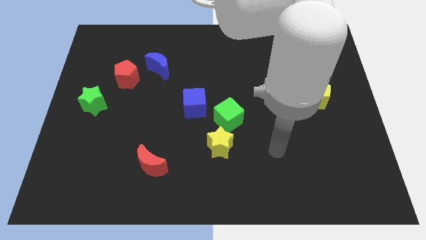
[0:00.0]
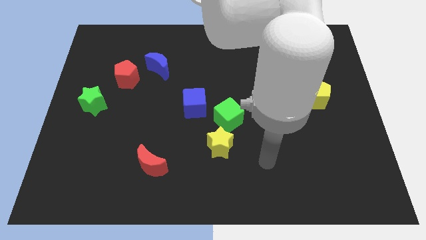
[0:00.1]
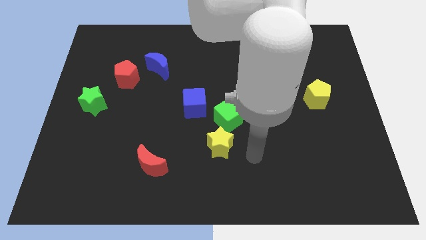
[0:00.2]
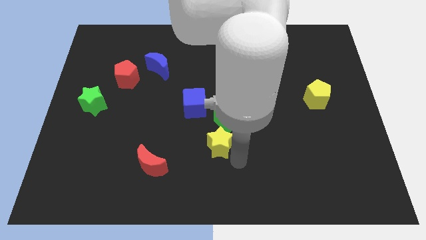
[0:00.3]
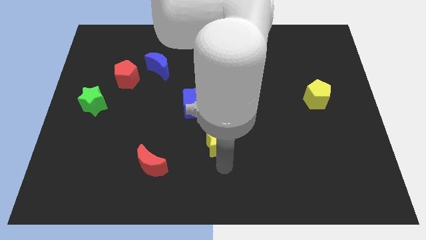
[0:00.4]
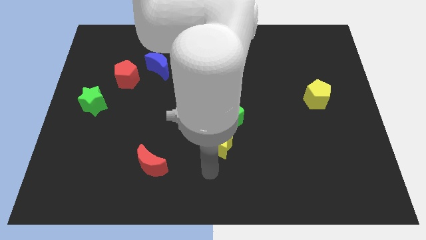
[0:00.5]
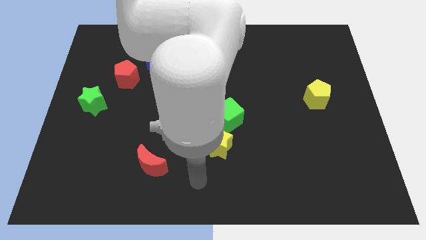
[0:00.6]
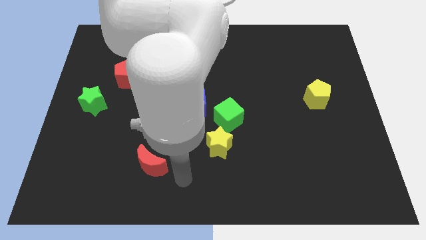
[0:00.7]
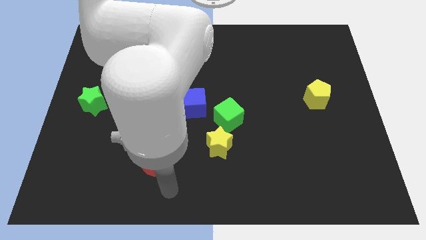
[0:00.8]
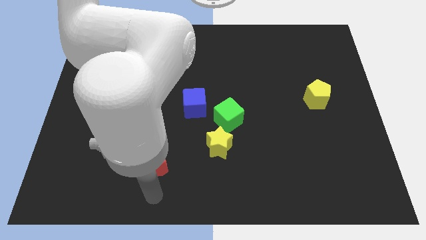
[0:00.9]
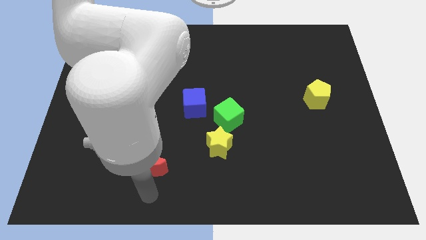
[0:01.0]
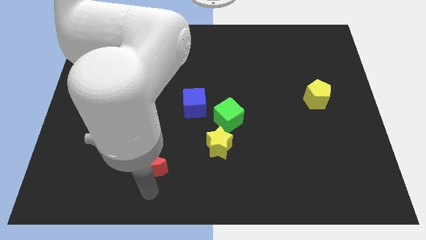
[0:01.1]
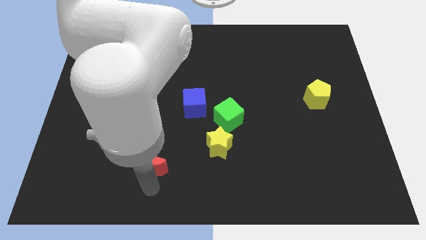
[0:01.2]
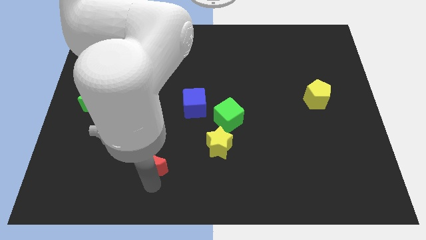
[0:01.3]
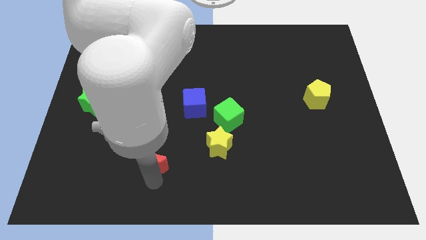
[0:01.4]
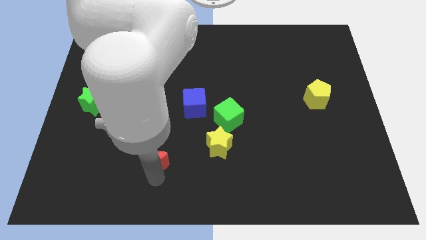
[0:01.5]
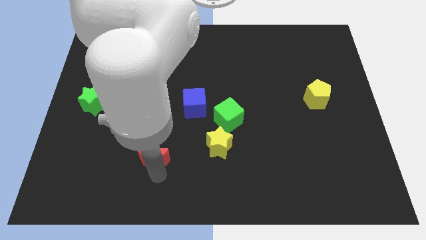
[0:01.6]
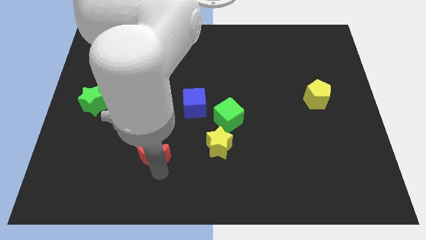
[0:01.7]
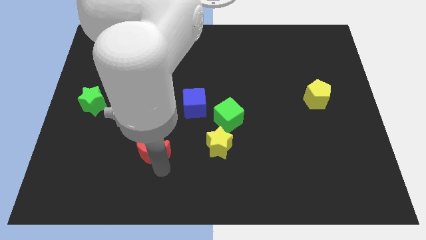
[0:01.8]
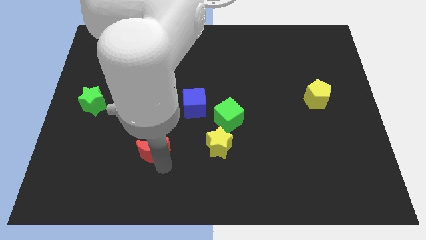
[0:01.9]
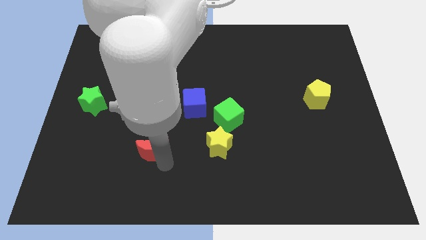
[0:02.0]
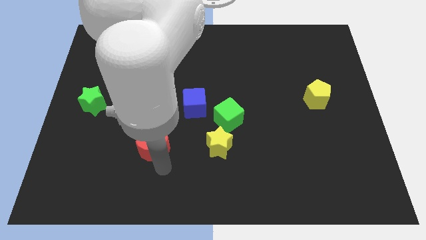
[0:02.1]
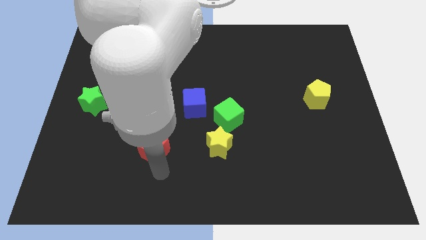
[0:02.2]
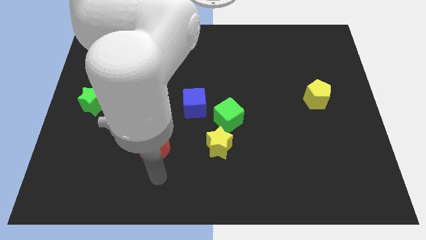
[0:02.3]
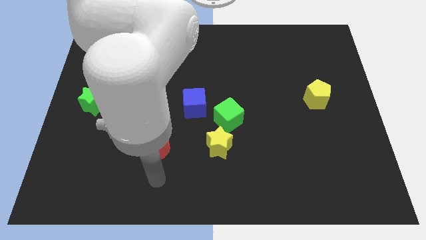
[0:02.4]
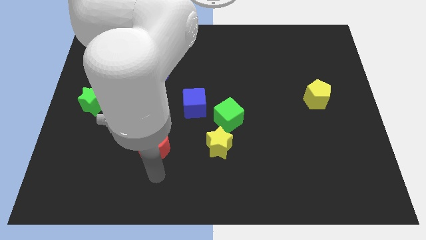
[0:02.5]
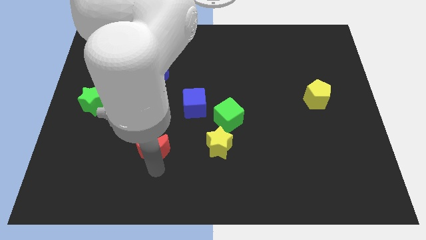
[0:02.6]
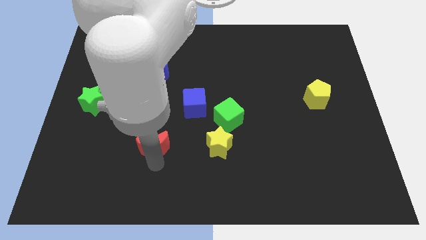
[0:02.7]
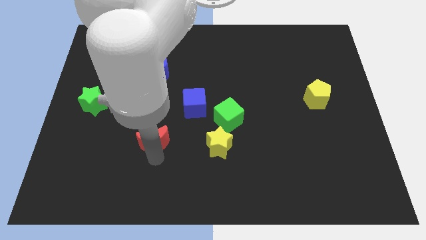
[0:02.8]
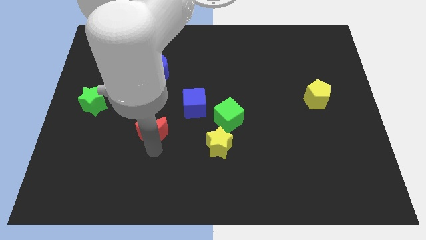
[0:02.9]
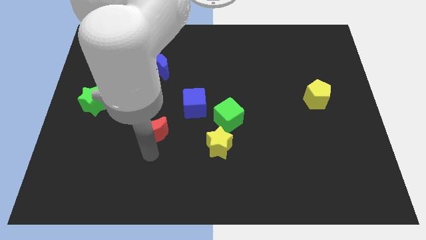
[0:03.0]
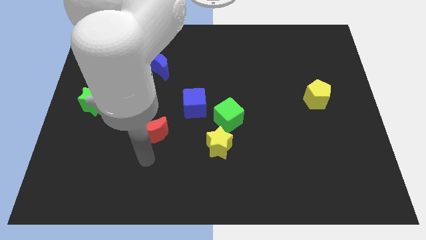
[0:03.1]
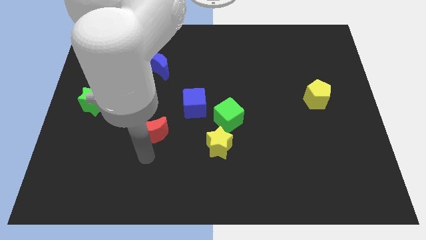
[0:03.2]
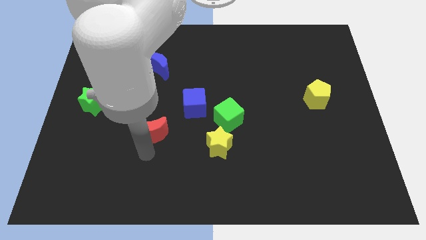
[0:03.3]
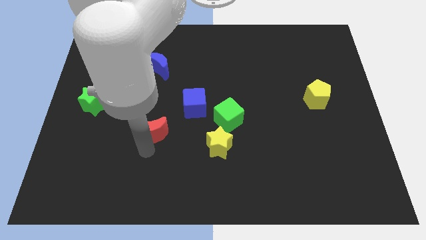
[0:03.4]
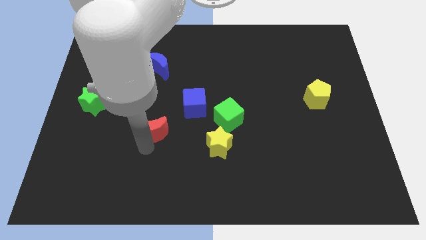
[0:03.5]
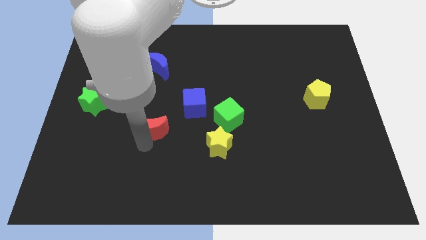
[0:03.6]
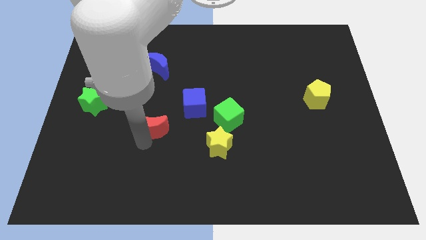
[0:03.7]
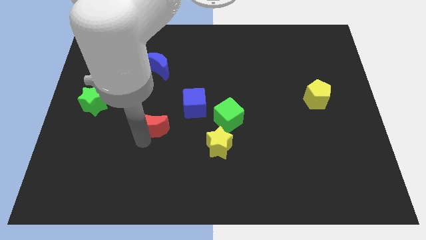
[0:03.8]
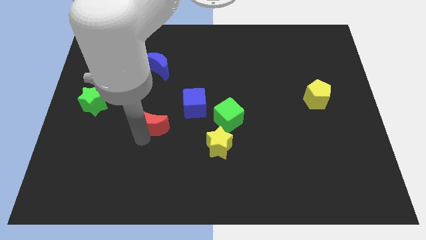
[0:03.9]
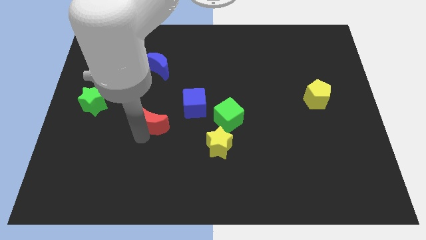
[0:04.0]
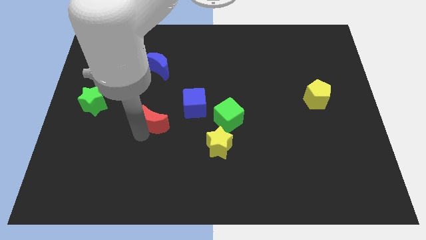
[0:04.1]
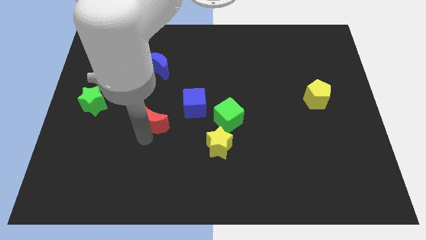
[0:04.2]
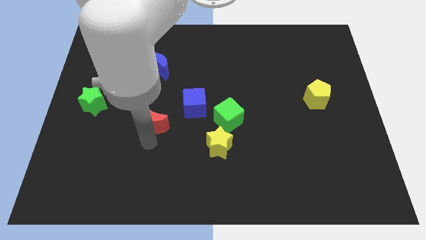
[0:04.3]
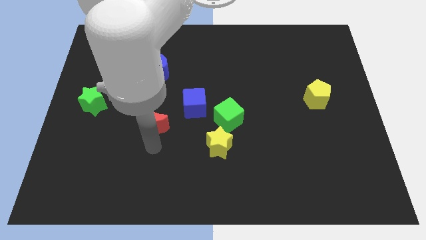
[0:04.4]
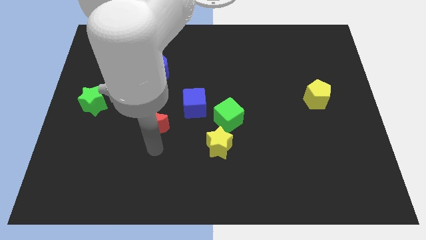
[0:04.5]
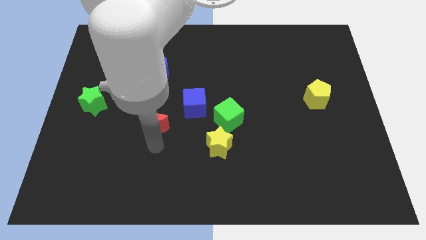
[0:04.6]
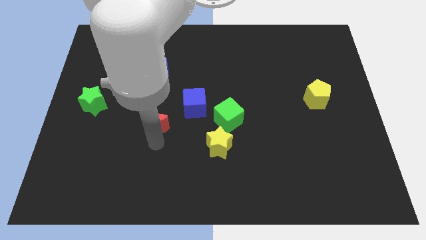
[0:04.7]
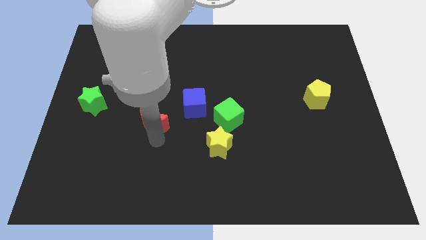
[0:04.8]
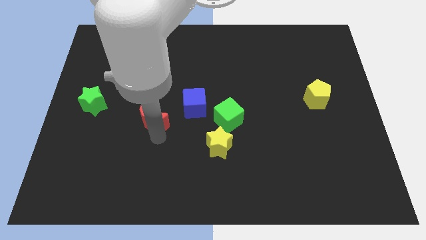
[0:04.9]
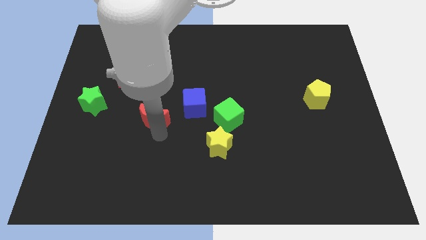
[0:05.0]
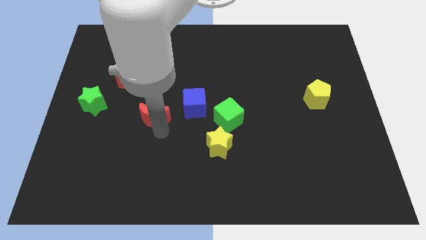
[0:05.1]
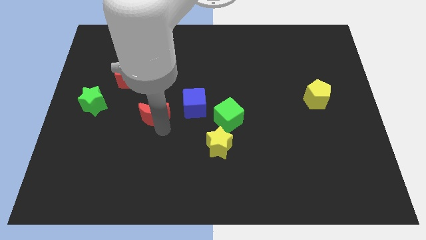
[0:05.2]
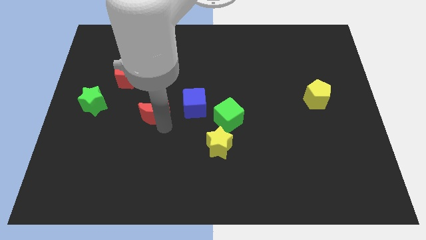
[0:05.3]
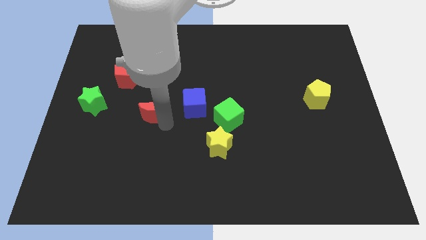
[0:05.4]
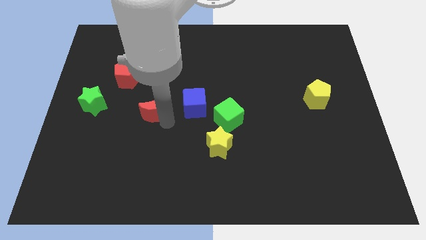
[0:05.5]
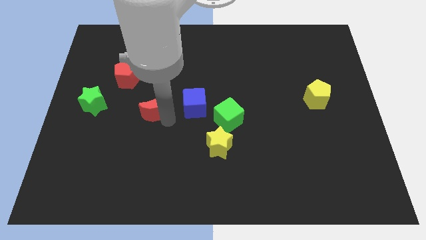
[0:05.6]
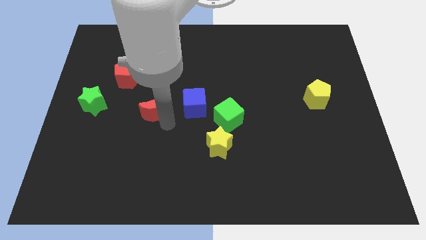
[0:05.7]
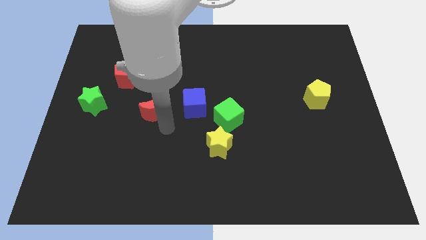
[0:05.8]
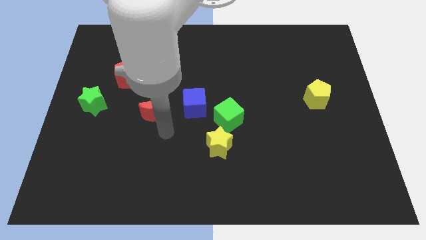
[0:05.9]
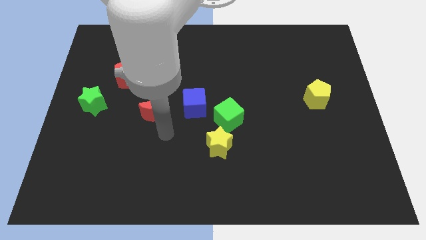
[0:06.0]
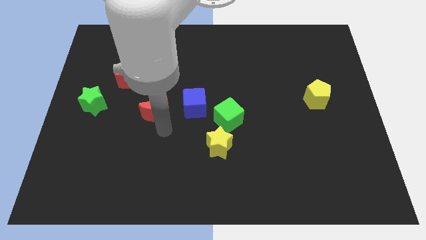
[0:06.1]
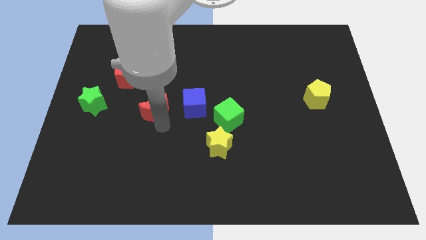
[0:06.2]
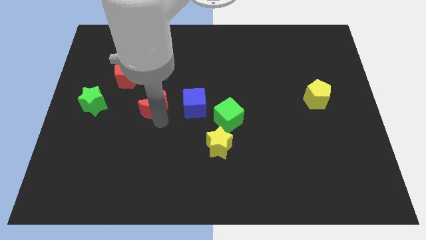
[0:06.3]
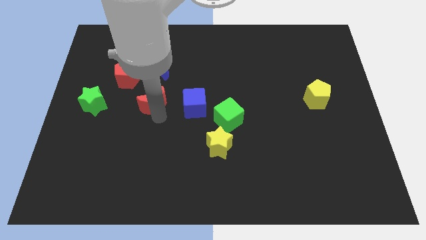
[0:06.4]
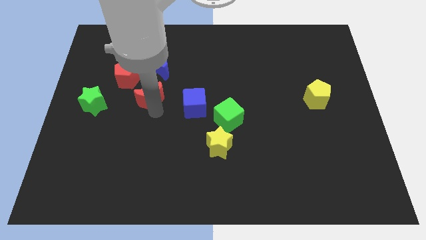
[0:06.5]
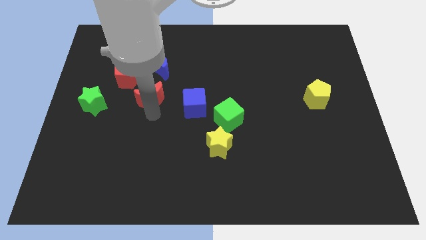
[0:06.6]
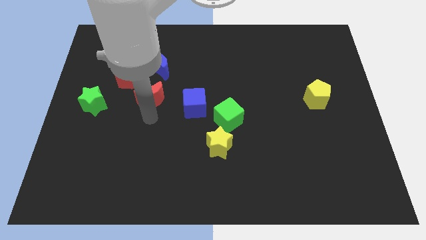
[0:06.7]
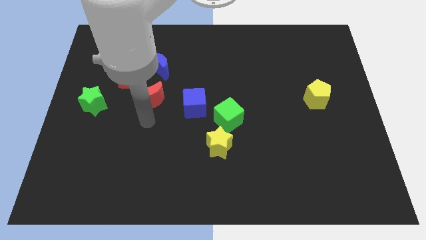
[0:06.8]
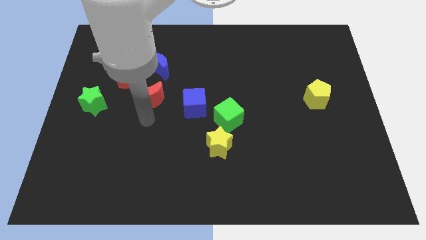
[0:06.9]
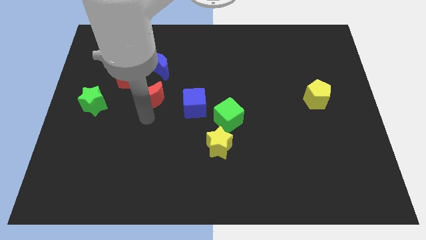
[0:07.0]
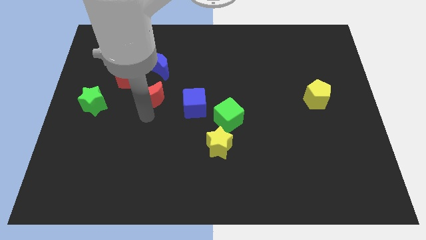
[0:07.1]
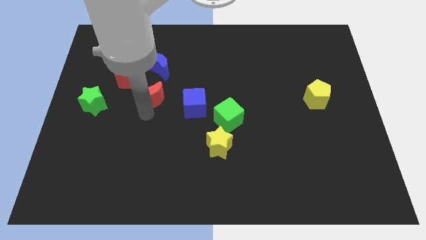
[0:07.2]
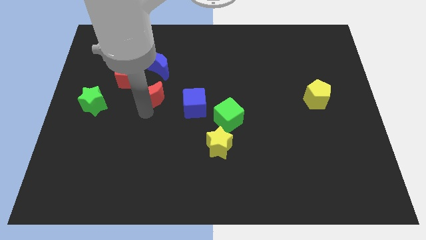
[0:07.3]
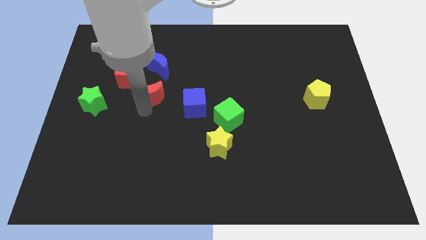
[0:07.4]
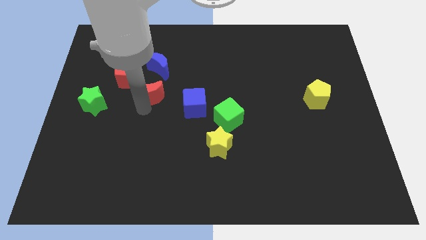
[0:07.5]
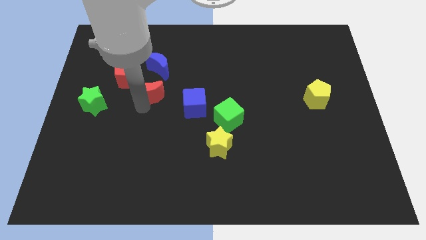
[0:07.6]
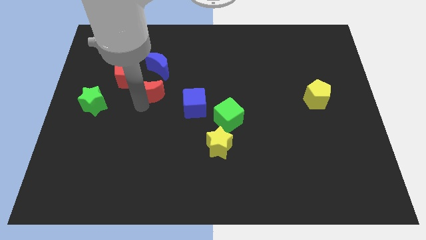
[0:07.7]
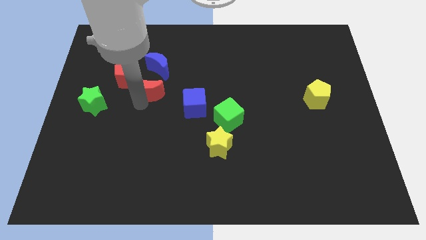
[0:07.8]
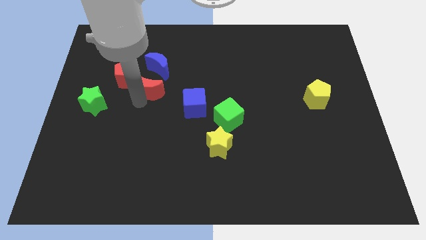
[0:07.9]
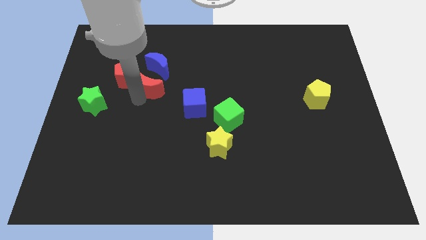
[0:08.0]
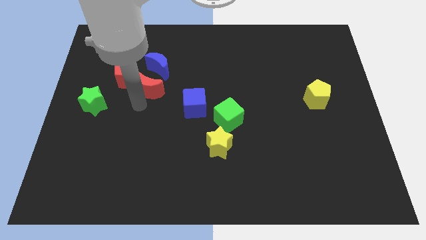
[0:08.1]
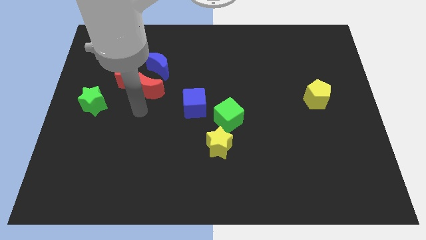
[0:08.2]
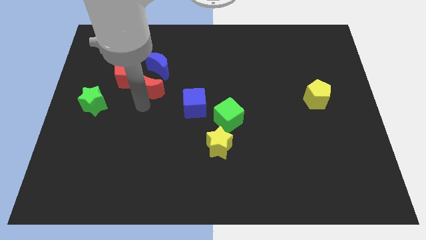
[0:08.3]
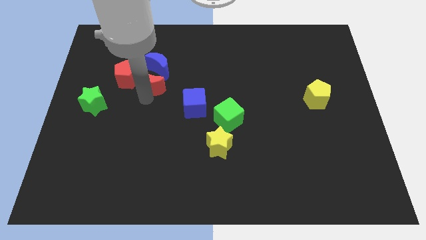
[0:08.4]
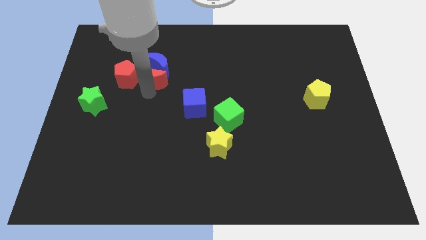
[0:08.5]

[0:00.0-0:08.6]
slide the red moon towards the blue moon
